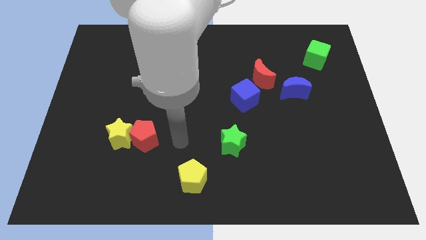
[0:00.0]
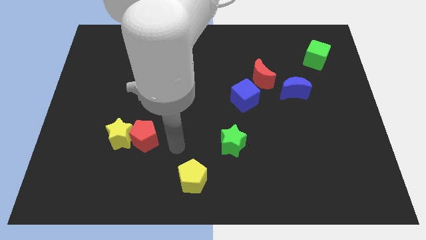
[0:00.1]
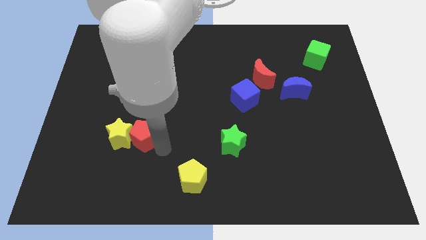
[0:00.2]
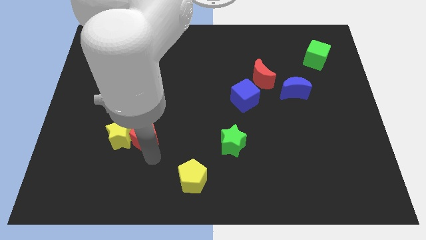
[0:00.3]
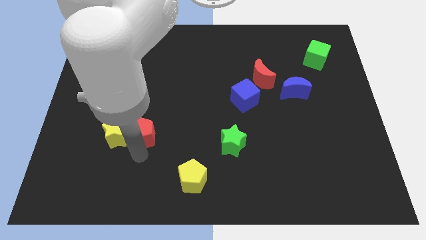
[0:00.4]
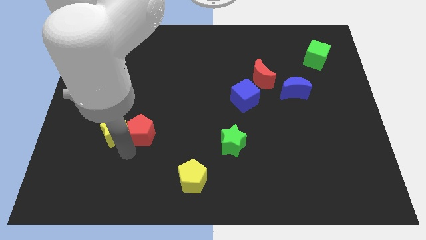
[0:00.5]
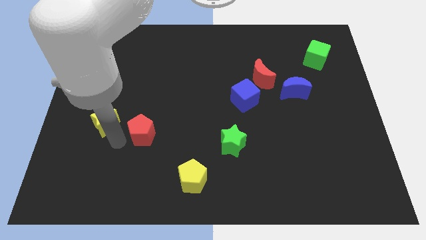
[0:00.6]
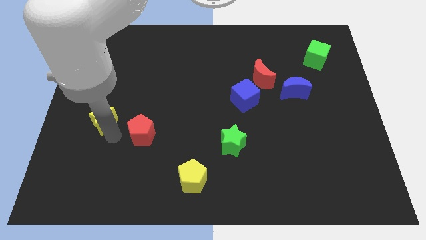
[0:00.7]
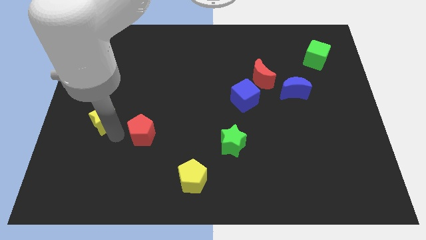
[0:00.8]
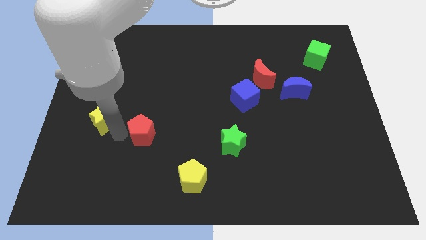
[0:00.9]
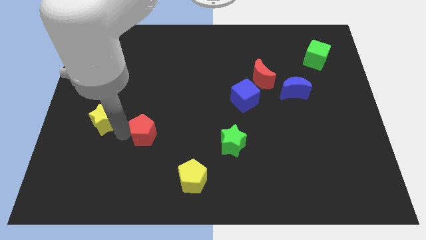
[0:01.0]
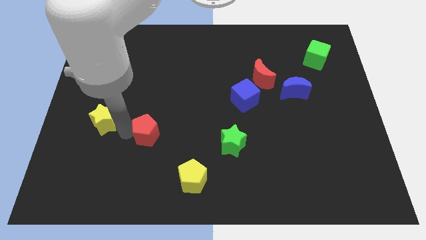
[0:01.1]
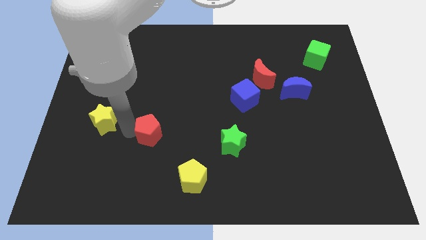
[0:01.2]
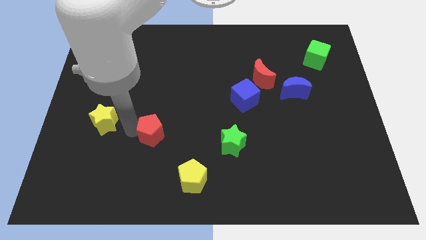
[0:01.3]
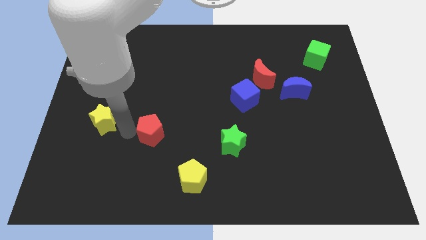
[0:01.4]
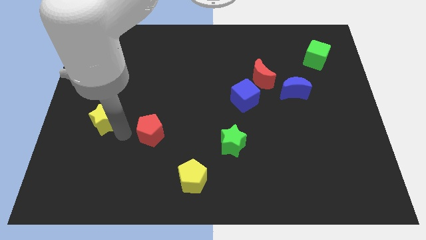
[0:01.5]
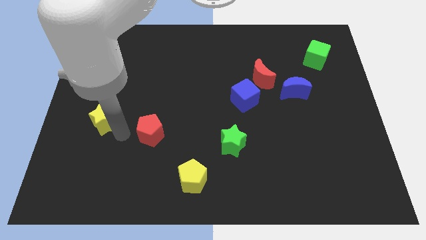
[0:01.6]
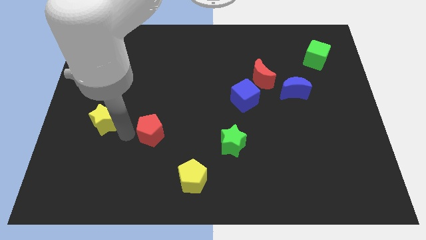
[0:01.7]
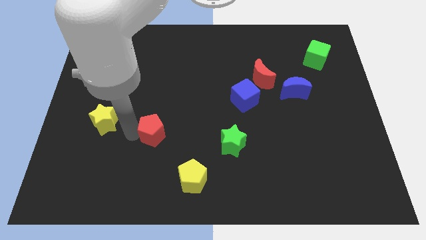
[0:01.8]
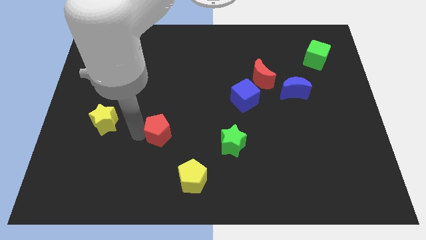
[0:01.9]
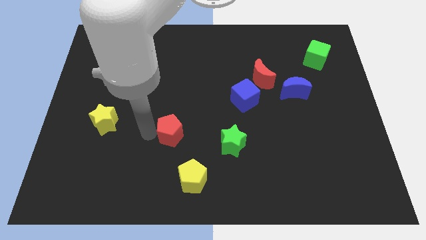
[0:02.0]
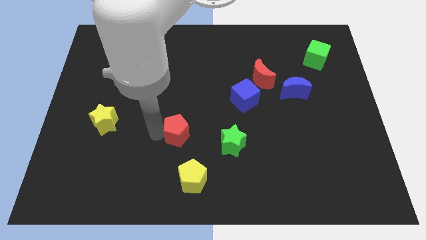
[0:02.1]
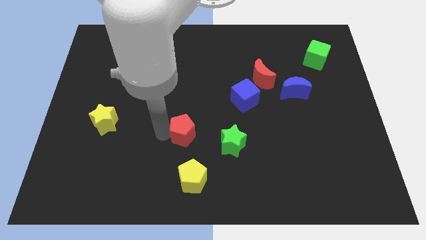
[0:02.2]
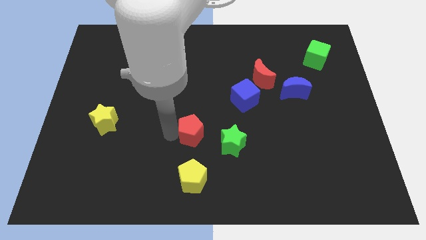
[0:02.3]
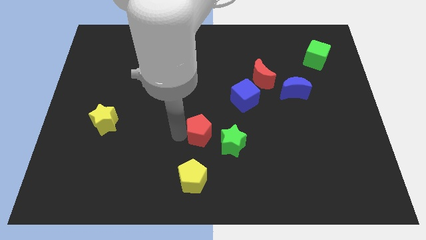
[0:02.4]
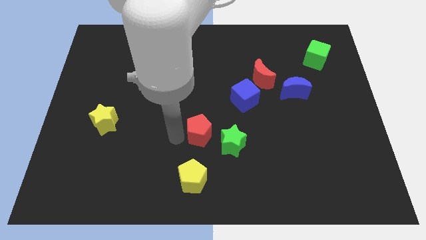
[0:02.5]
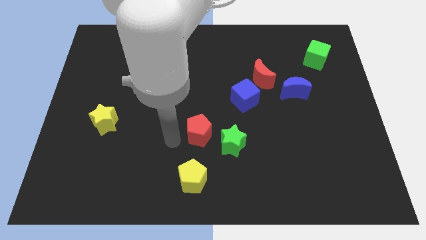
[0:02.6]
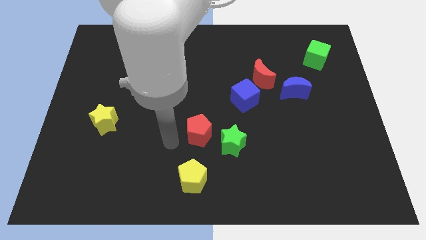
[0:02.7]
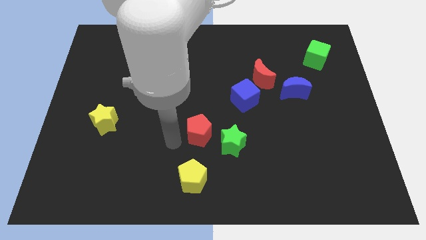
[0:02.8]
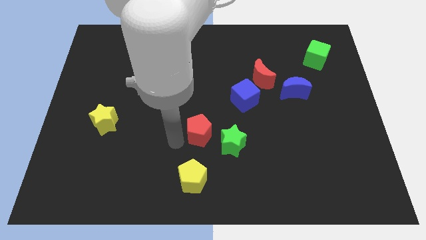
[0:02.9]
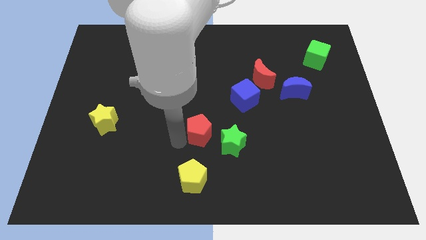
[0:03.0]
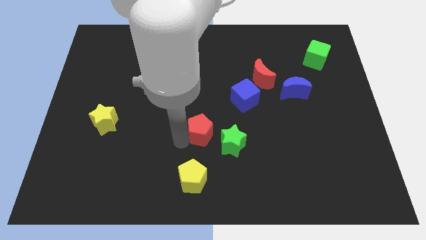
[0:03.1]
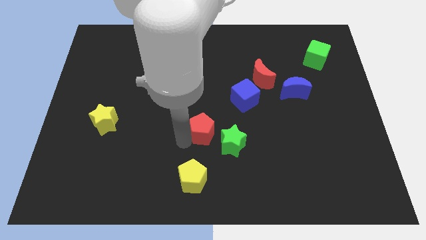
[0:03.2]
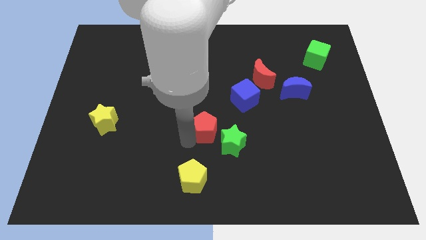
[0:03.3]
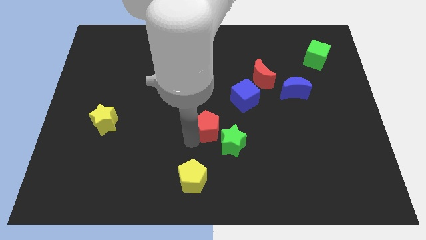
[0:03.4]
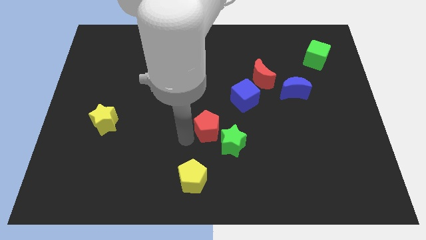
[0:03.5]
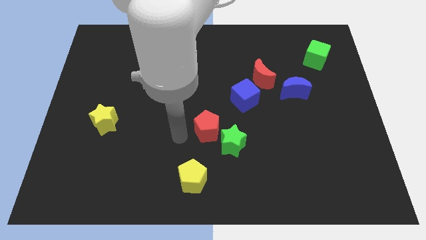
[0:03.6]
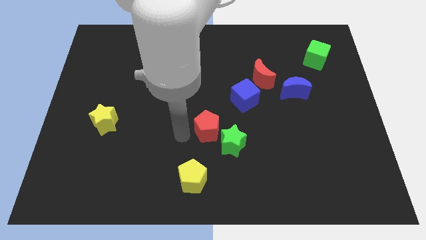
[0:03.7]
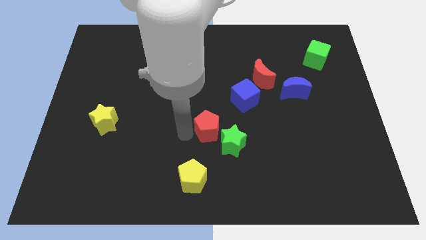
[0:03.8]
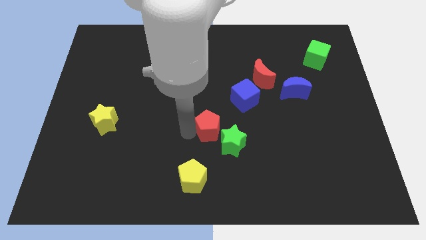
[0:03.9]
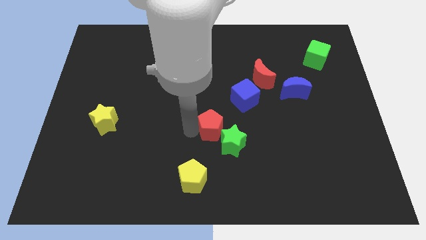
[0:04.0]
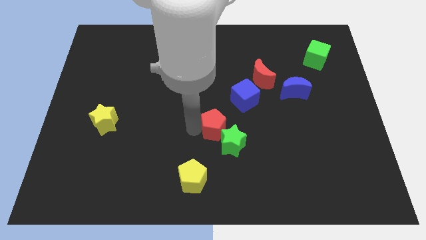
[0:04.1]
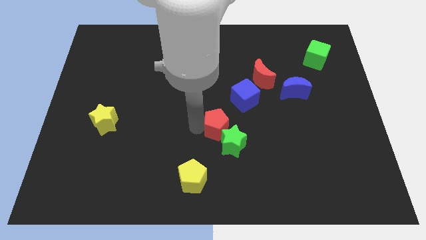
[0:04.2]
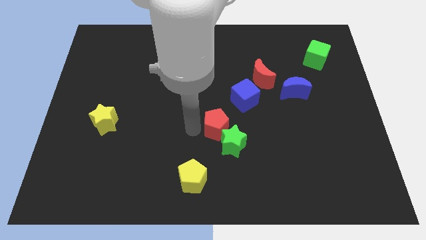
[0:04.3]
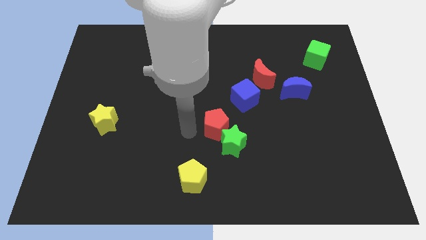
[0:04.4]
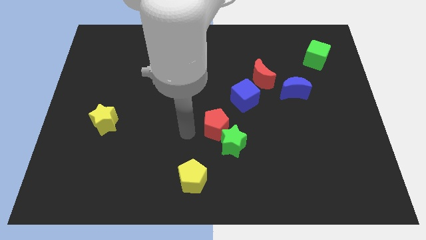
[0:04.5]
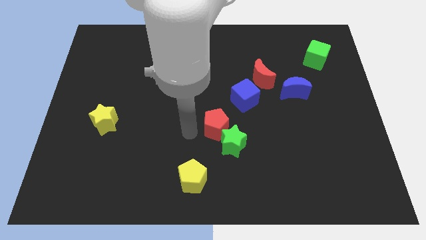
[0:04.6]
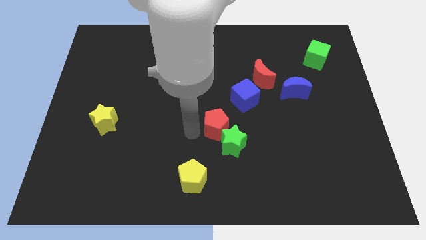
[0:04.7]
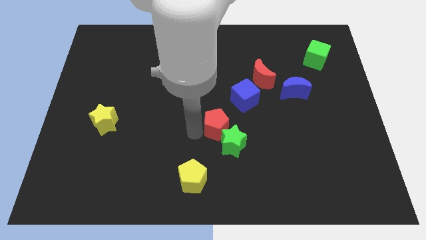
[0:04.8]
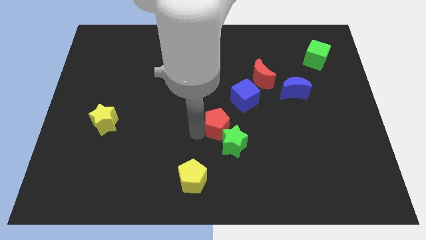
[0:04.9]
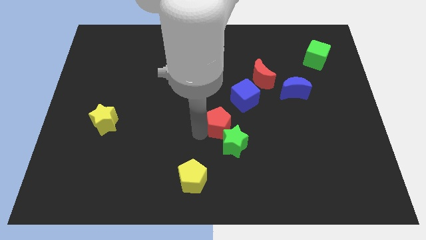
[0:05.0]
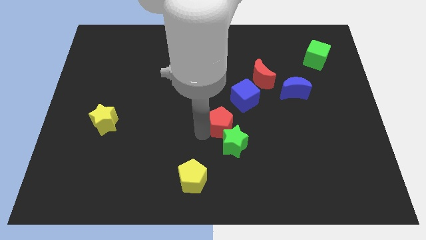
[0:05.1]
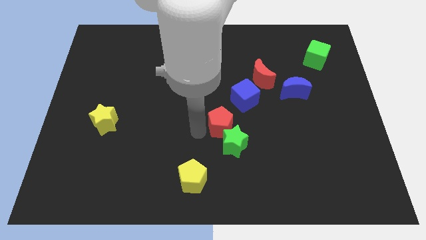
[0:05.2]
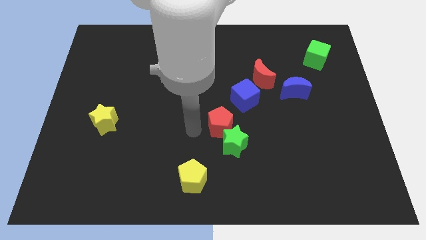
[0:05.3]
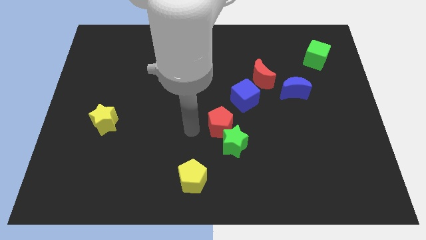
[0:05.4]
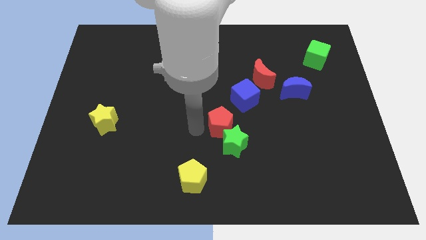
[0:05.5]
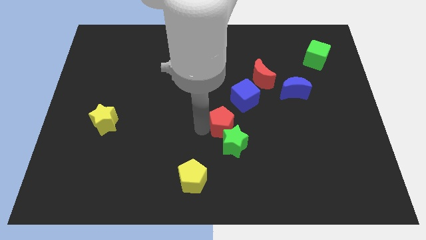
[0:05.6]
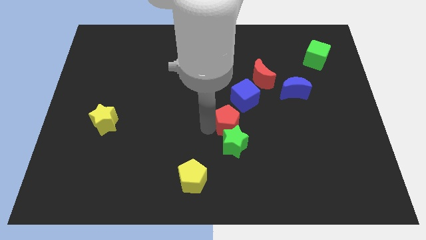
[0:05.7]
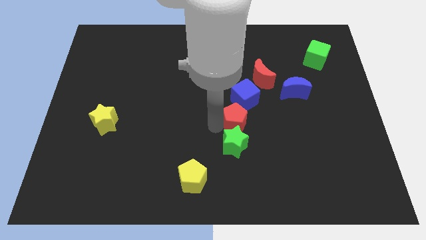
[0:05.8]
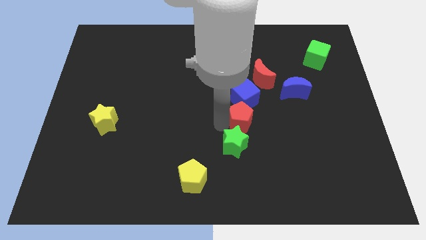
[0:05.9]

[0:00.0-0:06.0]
slide the red pentagon right

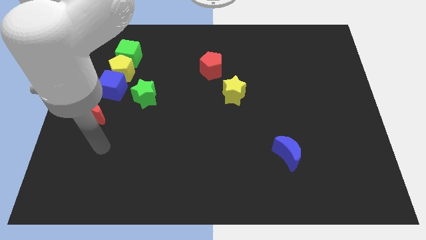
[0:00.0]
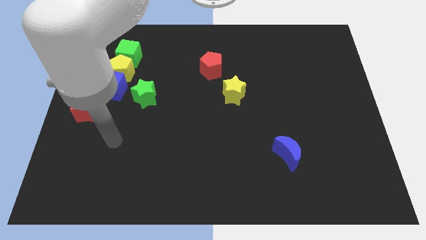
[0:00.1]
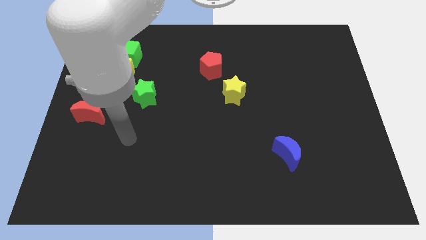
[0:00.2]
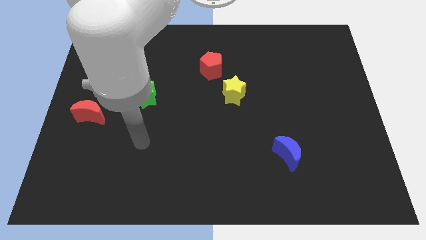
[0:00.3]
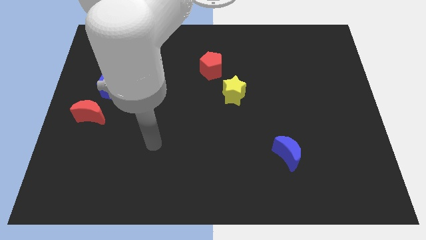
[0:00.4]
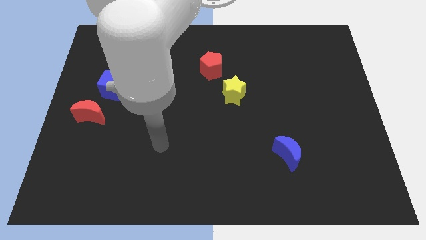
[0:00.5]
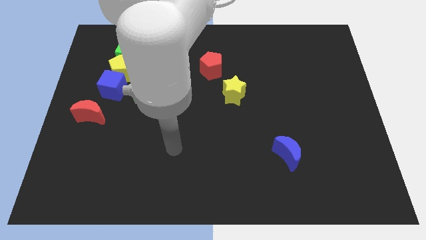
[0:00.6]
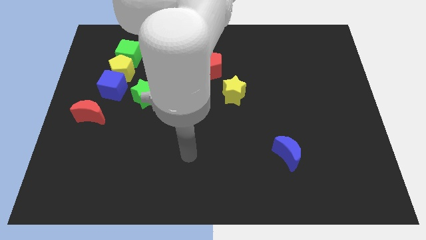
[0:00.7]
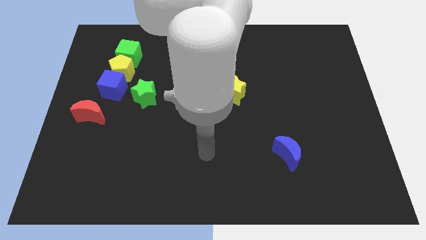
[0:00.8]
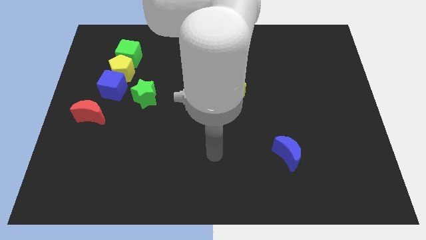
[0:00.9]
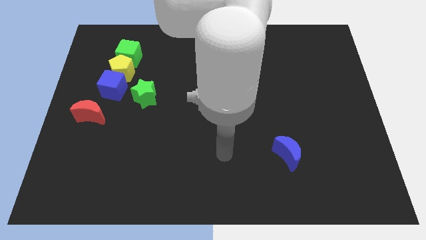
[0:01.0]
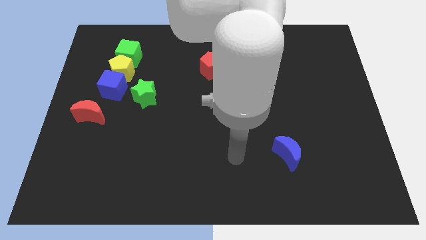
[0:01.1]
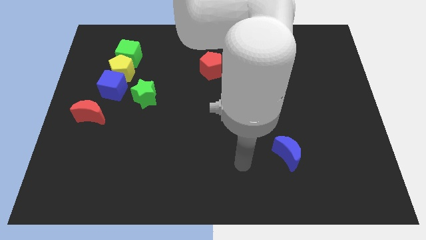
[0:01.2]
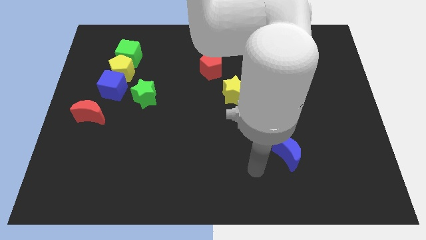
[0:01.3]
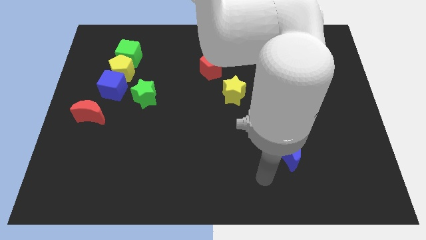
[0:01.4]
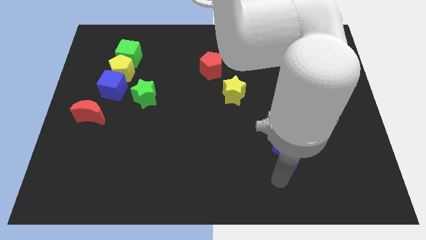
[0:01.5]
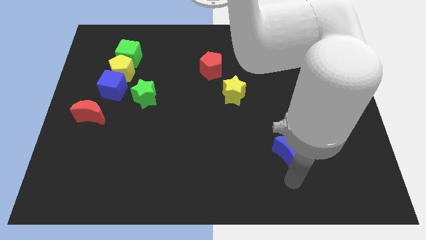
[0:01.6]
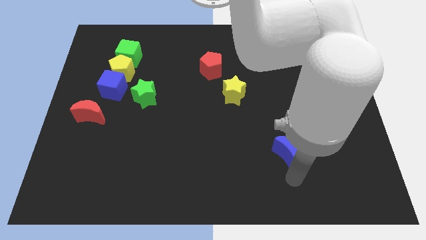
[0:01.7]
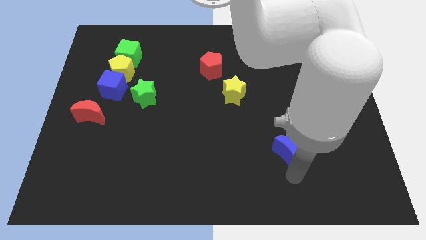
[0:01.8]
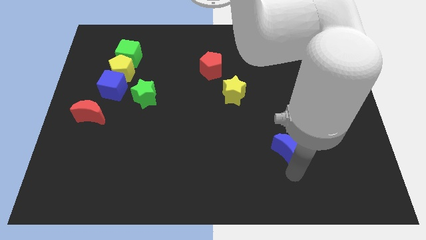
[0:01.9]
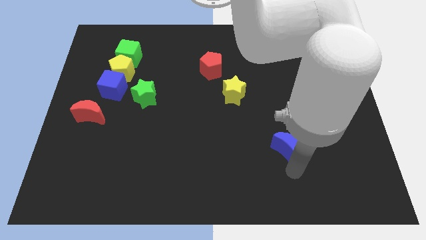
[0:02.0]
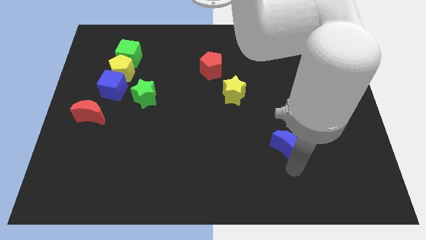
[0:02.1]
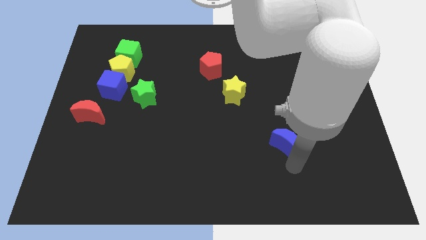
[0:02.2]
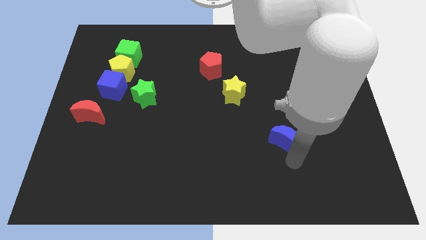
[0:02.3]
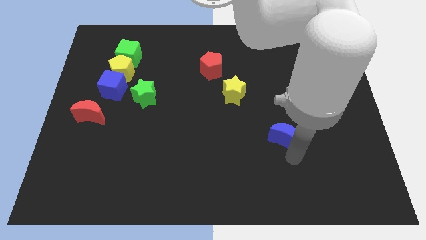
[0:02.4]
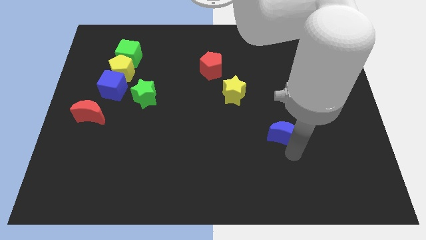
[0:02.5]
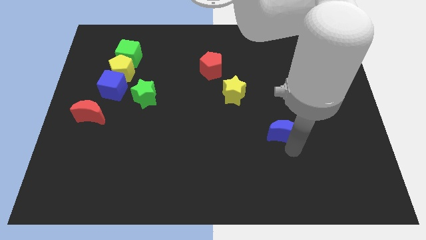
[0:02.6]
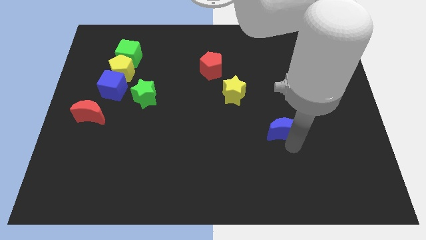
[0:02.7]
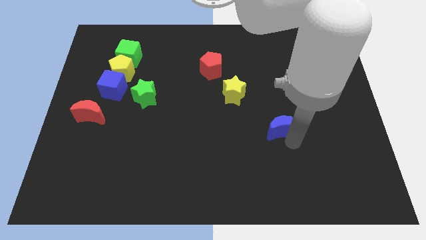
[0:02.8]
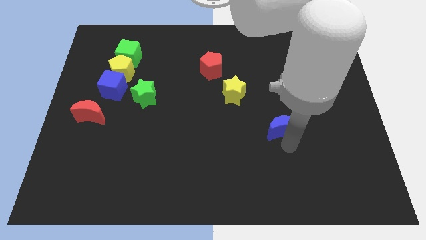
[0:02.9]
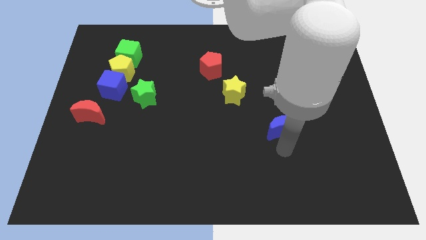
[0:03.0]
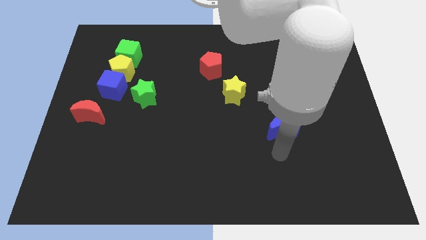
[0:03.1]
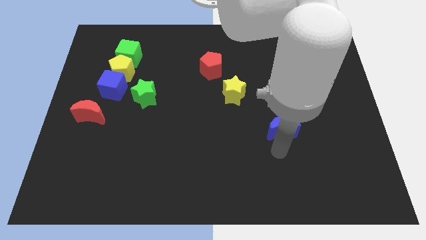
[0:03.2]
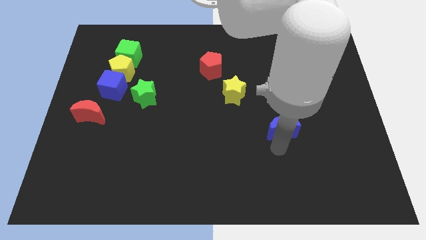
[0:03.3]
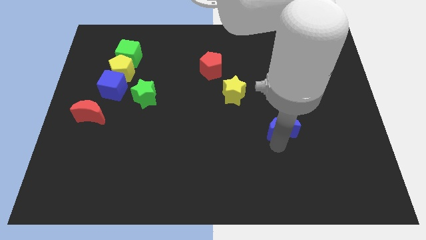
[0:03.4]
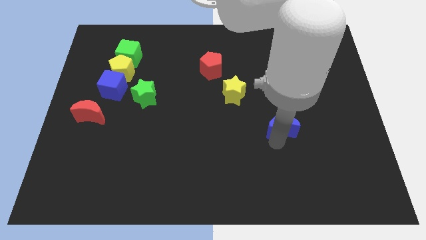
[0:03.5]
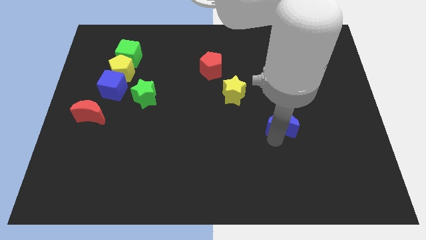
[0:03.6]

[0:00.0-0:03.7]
slightly slide the blue moon up
